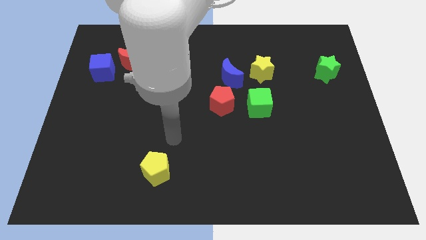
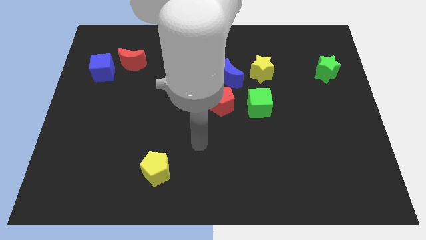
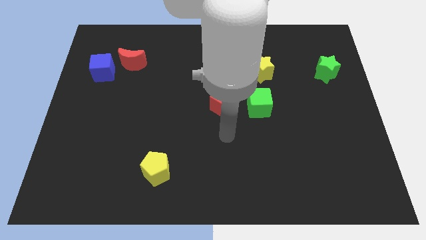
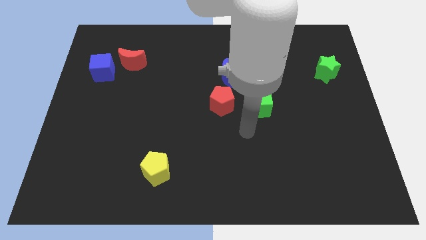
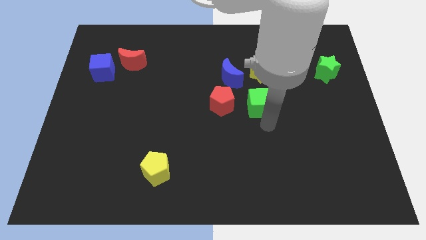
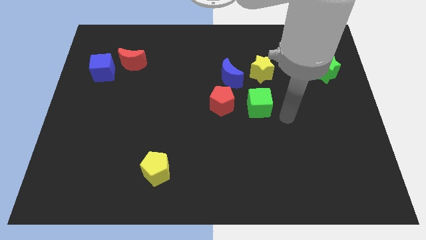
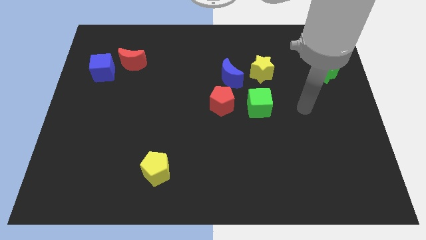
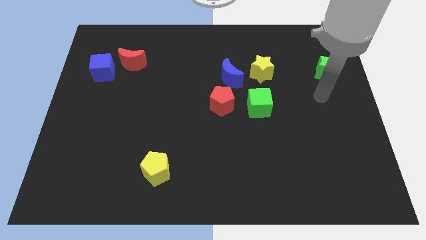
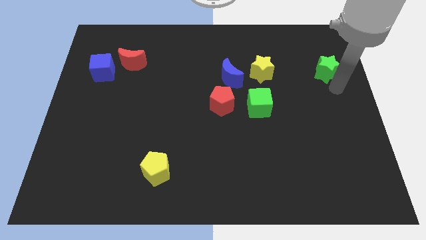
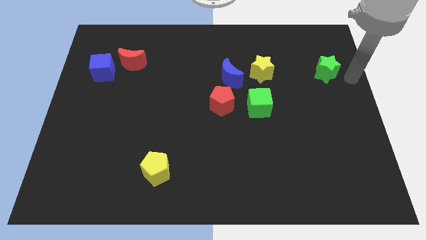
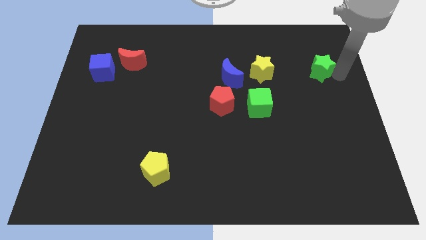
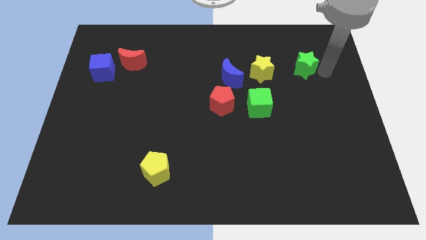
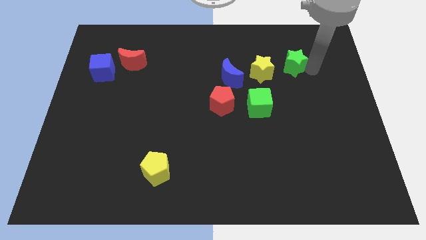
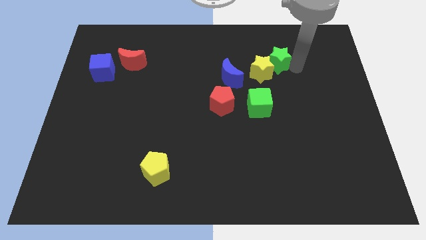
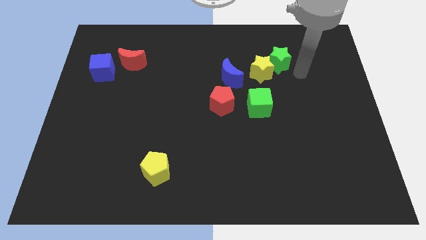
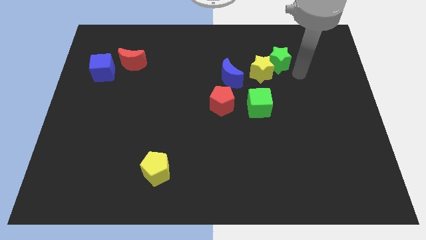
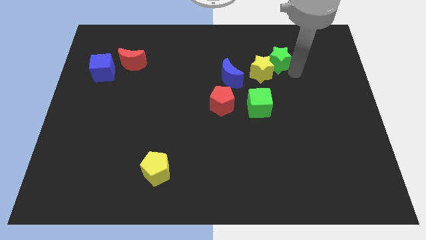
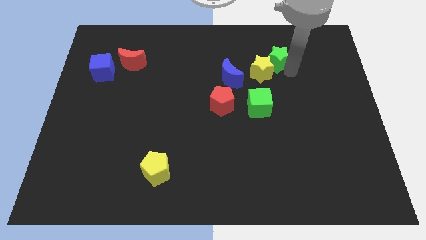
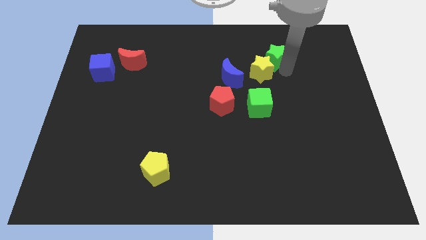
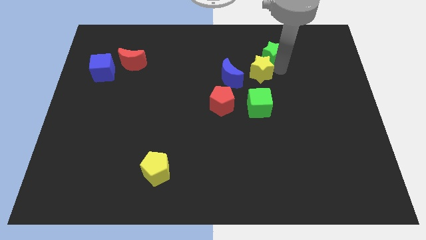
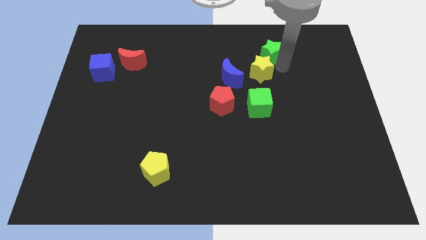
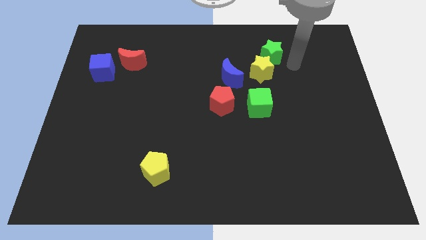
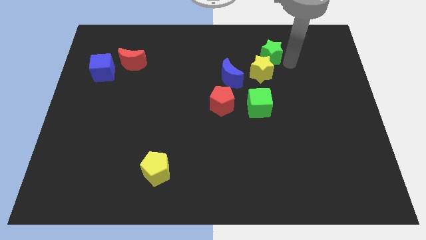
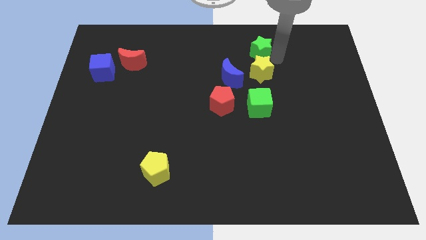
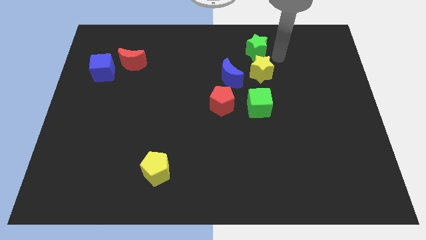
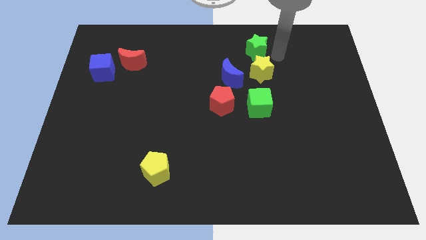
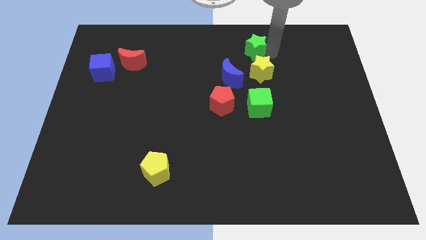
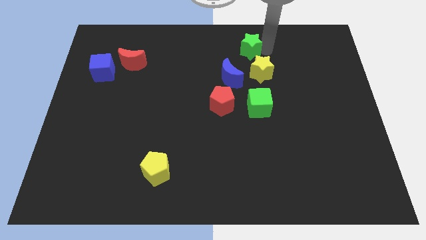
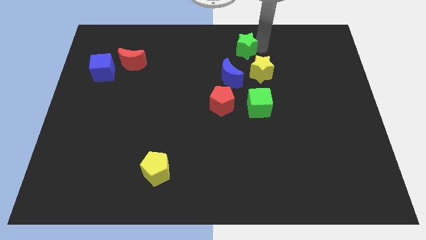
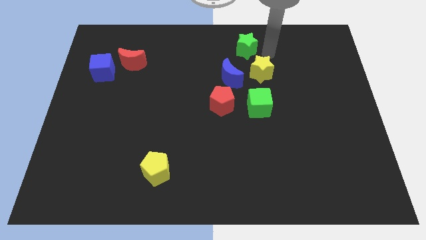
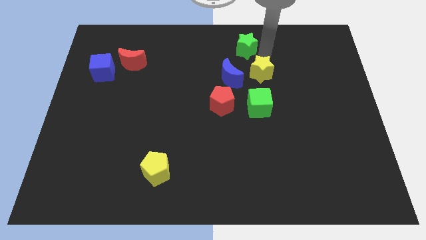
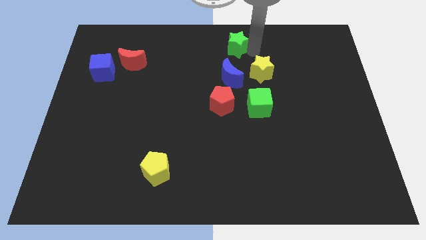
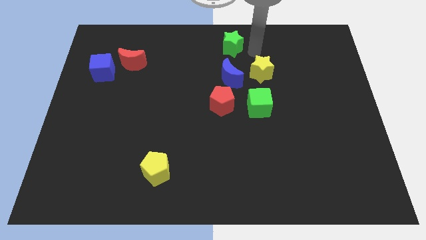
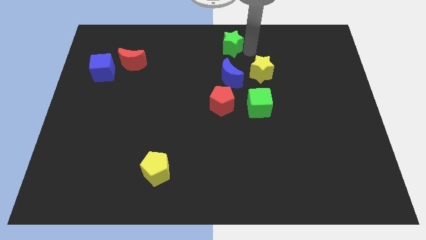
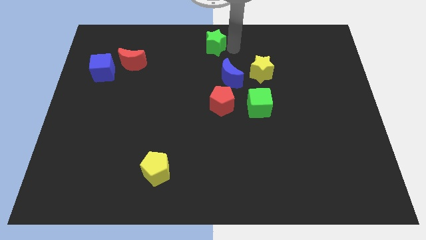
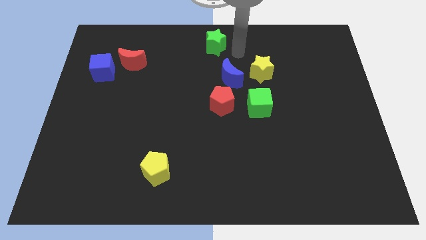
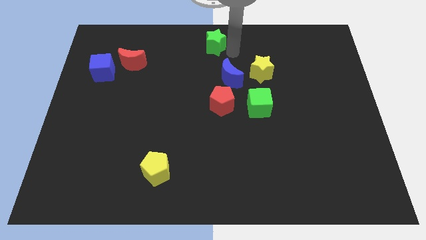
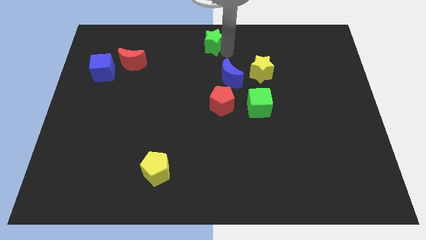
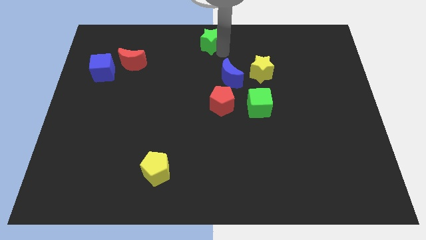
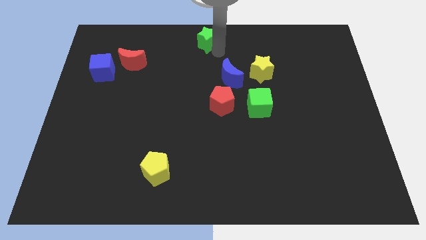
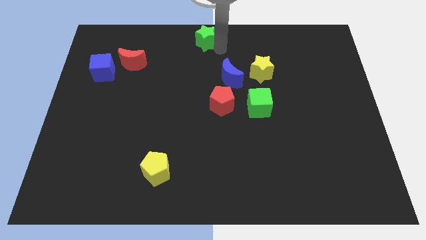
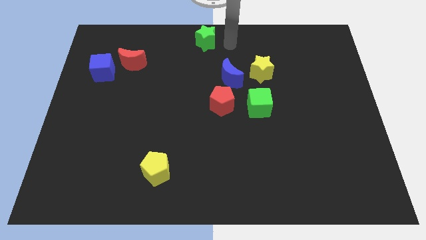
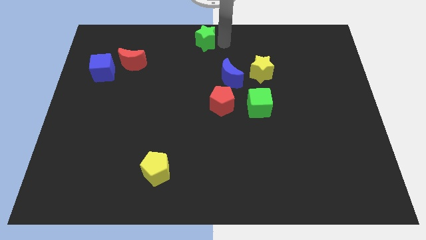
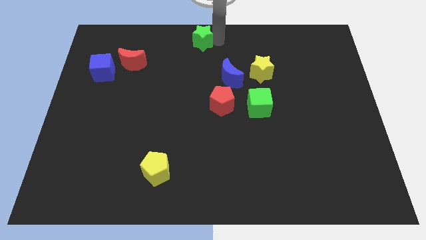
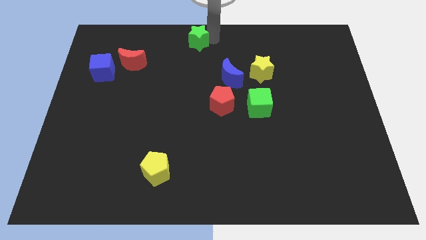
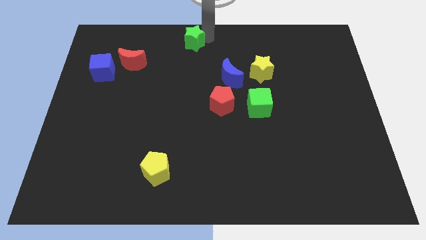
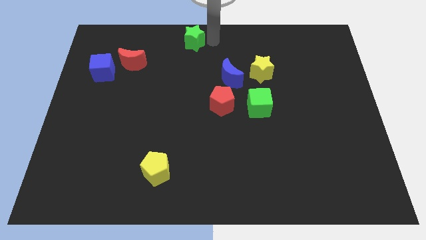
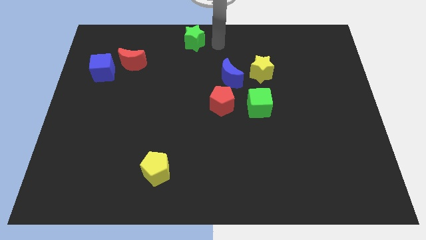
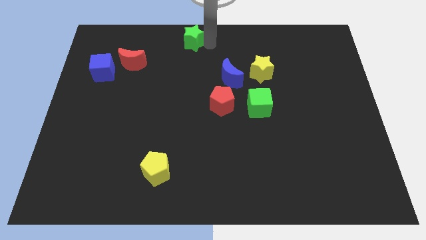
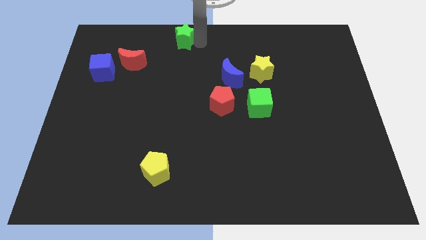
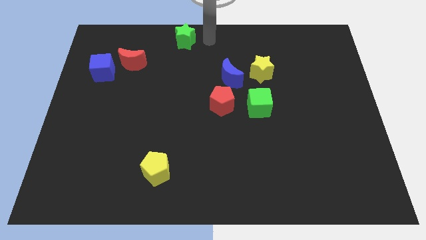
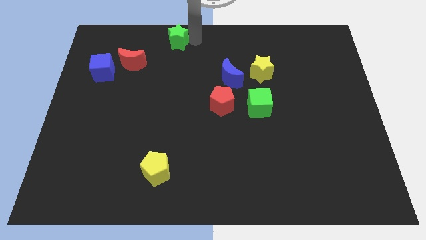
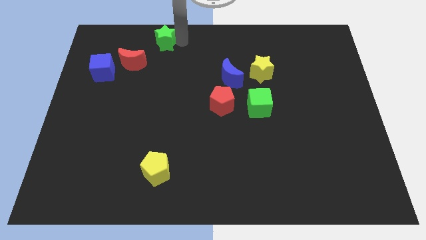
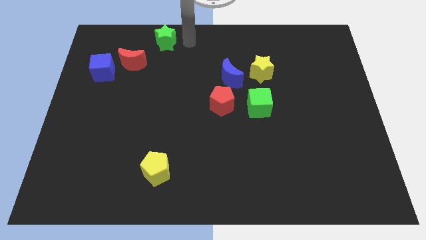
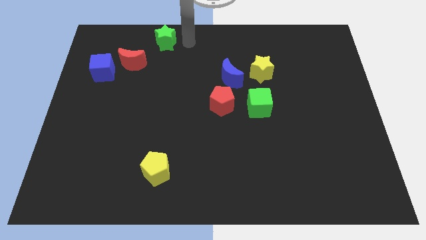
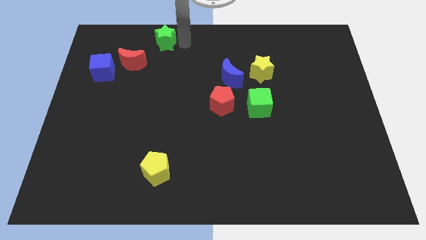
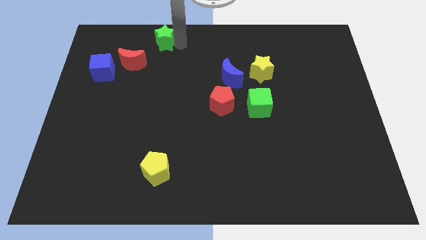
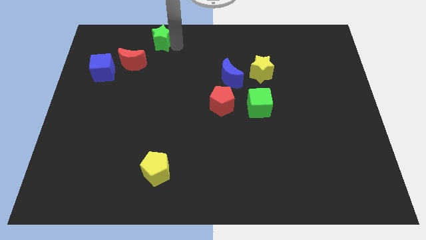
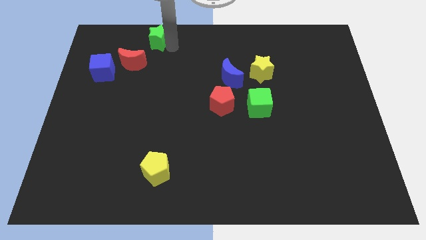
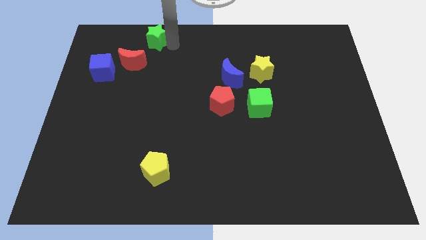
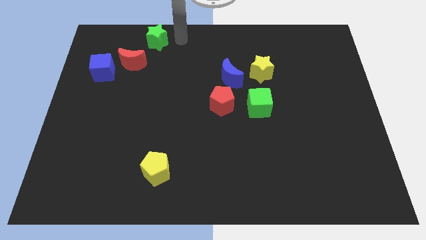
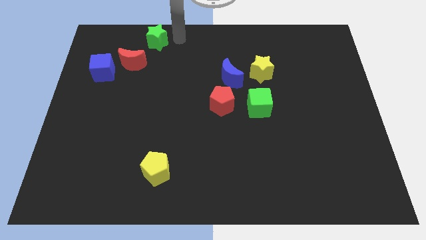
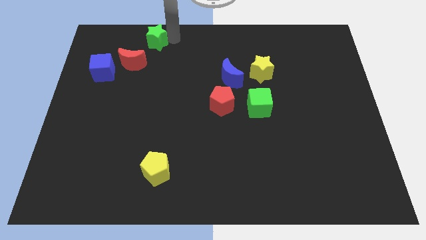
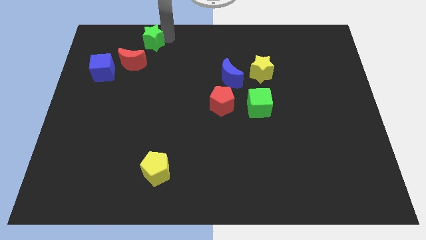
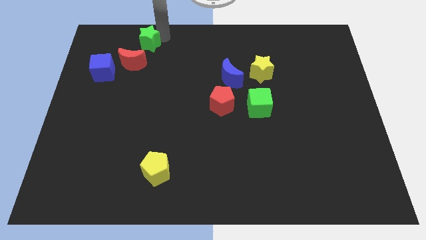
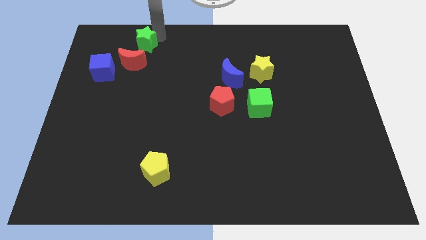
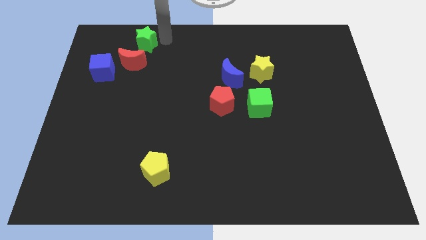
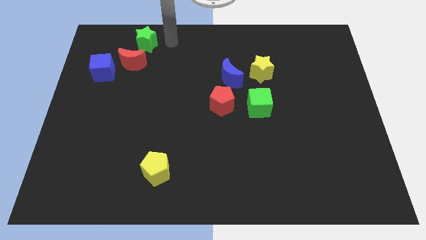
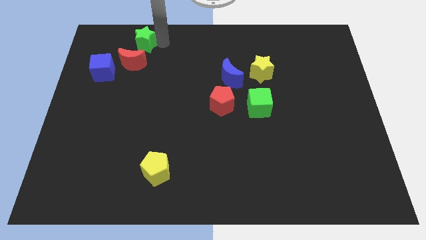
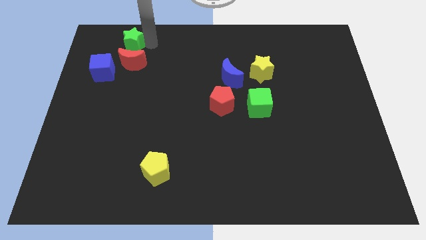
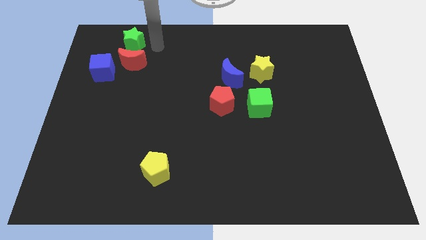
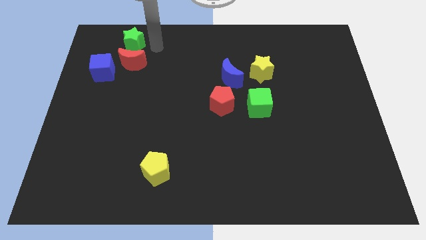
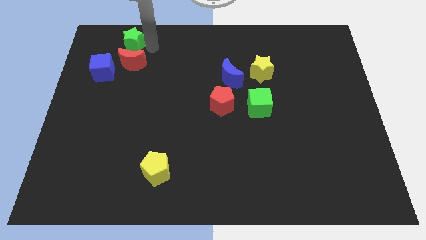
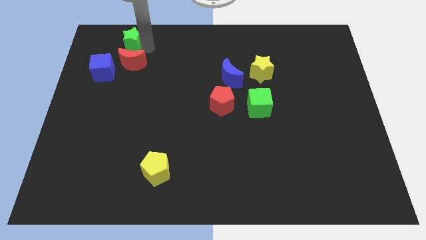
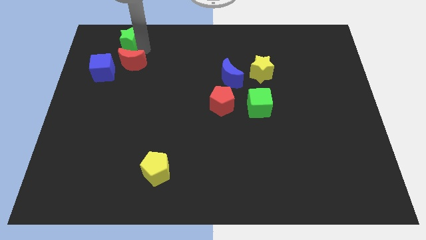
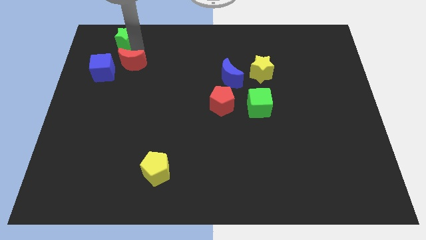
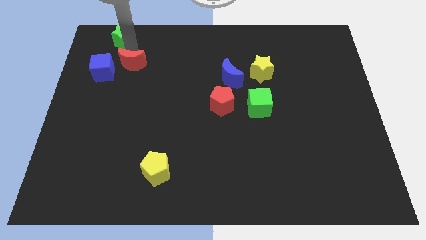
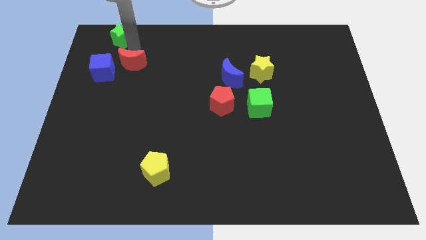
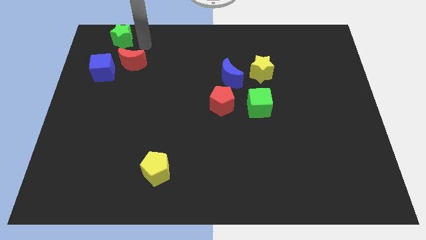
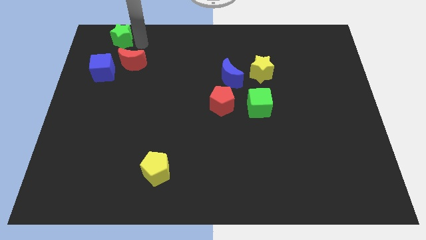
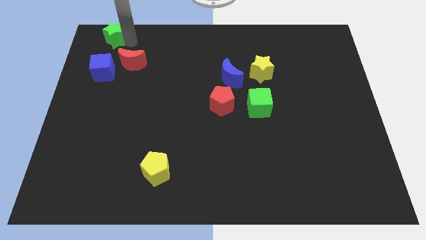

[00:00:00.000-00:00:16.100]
push the green star to the top left corner
